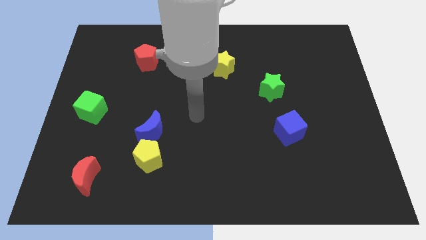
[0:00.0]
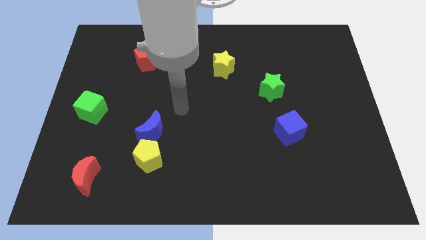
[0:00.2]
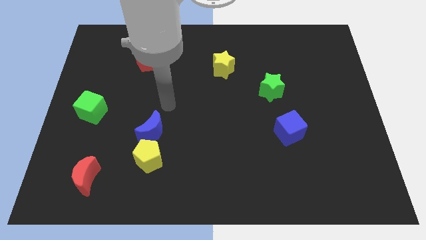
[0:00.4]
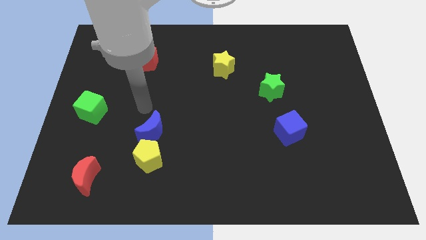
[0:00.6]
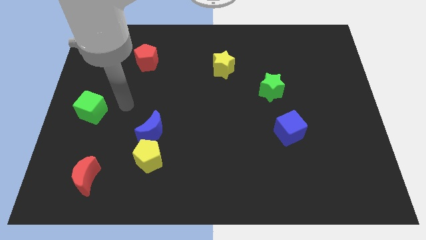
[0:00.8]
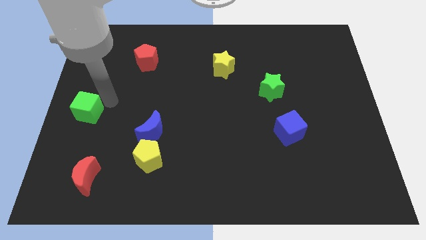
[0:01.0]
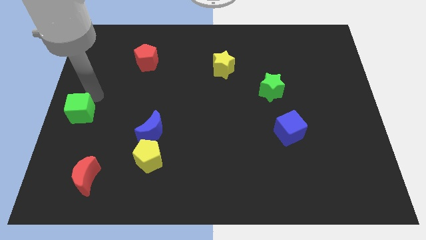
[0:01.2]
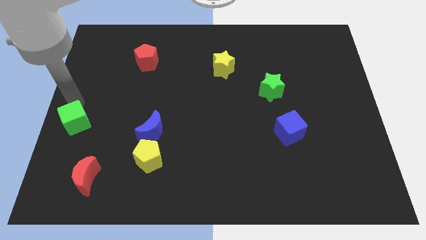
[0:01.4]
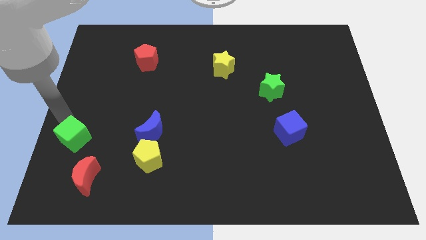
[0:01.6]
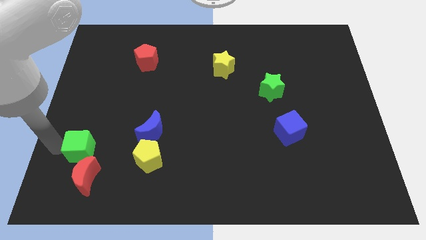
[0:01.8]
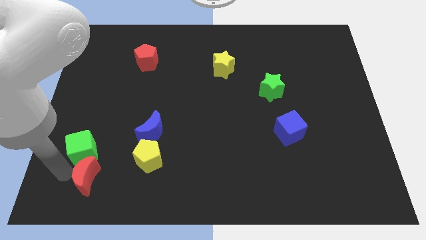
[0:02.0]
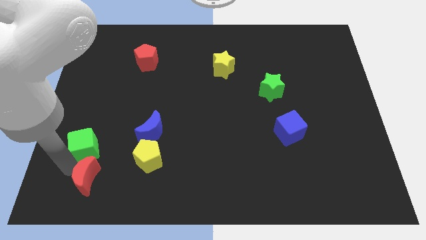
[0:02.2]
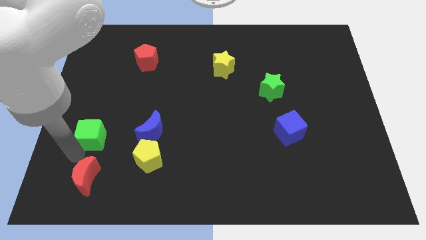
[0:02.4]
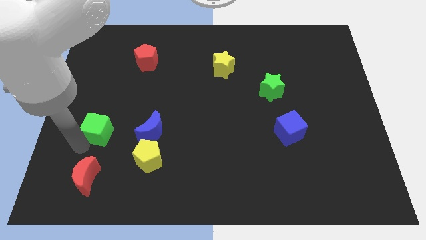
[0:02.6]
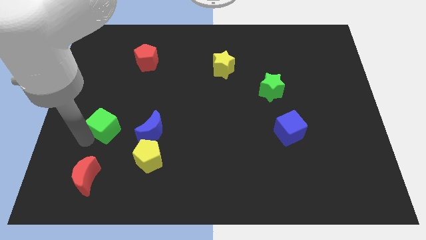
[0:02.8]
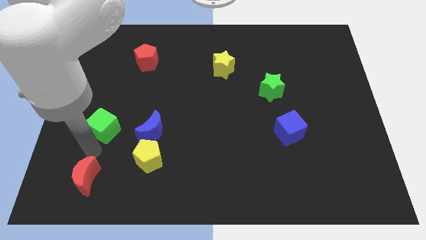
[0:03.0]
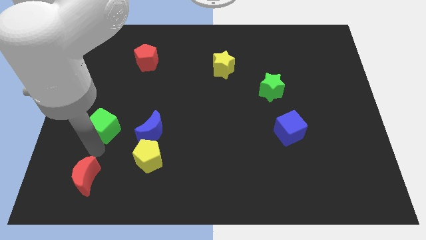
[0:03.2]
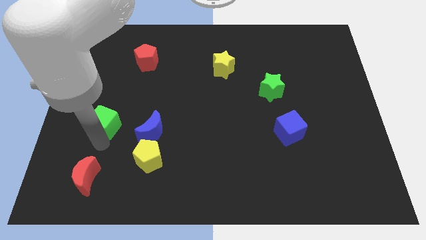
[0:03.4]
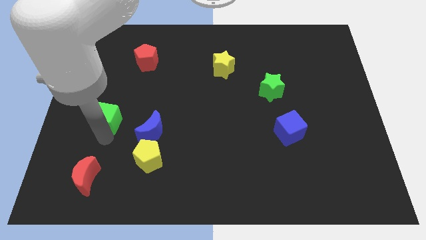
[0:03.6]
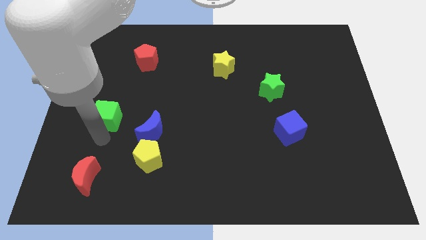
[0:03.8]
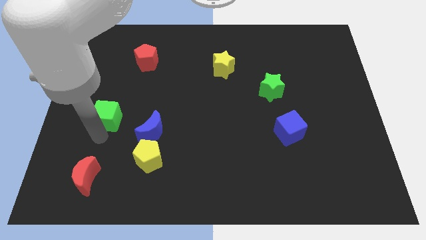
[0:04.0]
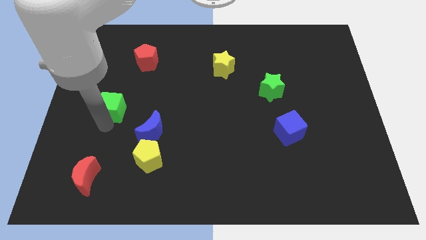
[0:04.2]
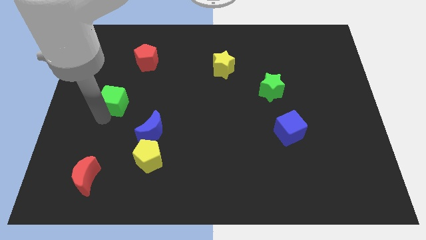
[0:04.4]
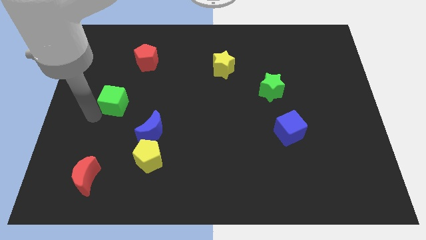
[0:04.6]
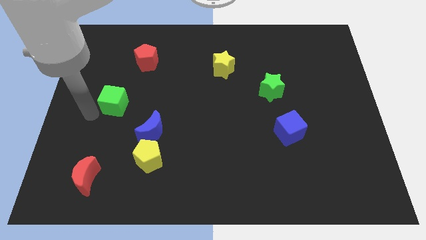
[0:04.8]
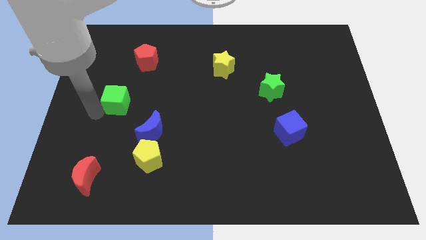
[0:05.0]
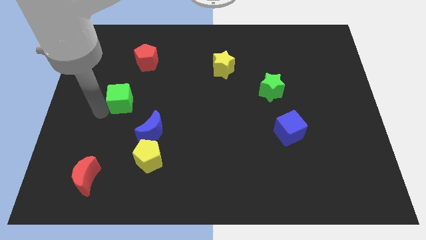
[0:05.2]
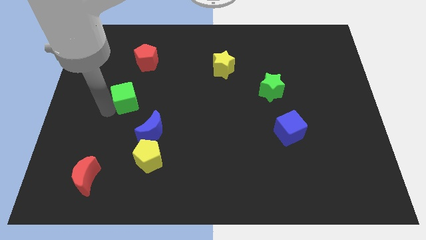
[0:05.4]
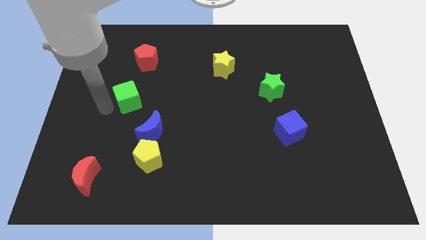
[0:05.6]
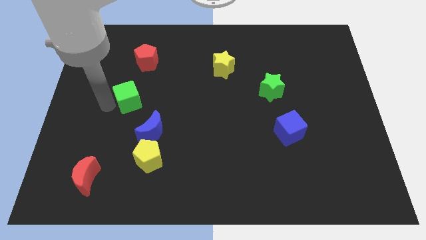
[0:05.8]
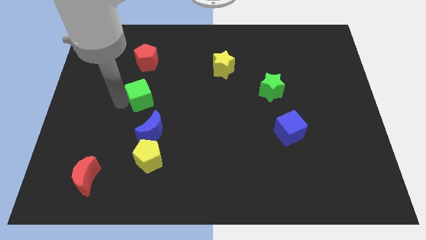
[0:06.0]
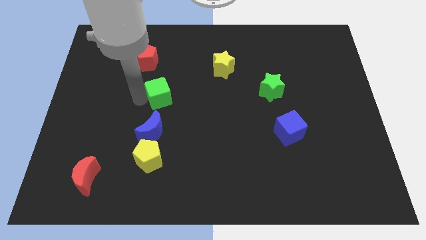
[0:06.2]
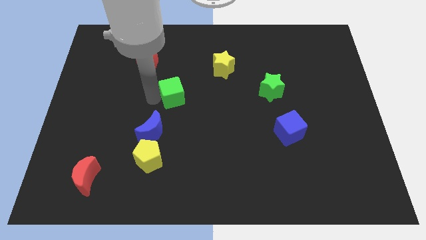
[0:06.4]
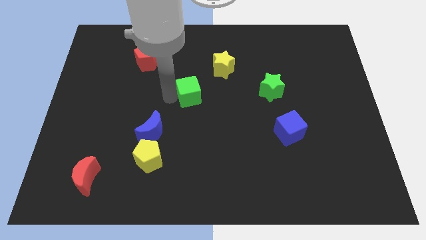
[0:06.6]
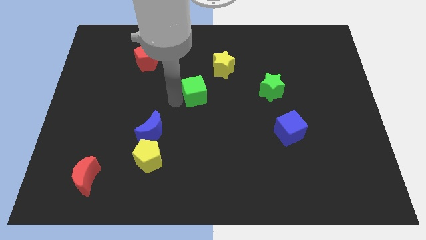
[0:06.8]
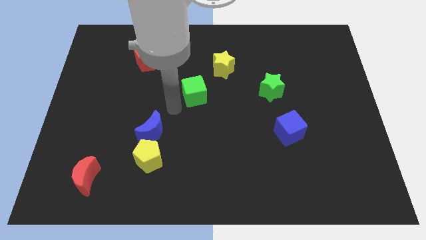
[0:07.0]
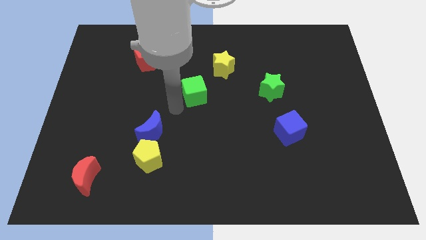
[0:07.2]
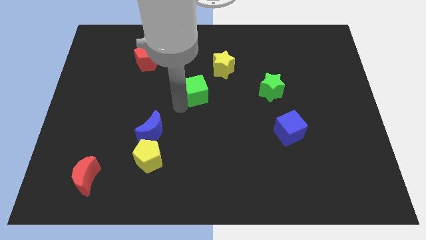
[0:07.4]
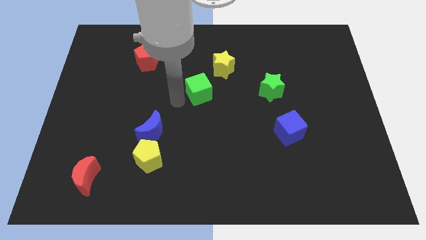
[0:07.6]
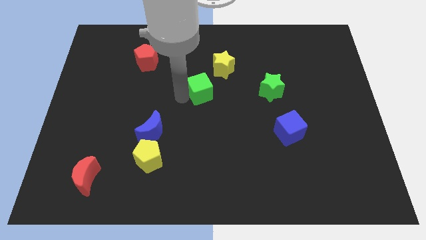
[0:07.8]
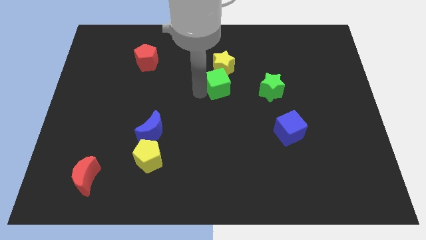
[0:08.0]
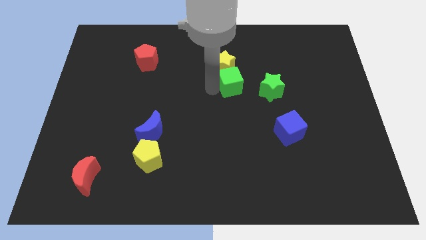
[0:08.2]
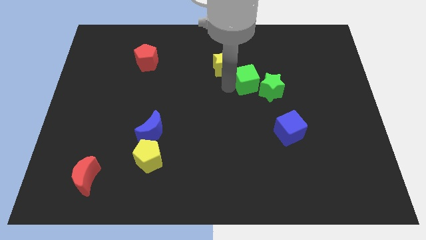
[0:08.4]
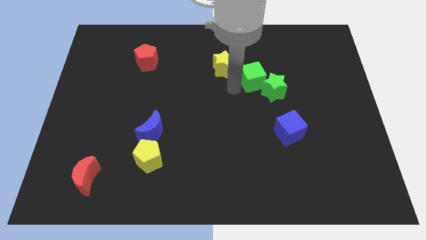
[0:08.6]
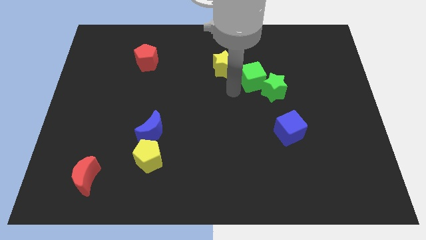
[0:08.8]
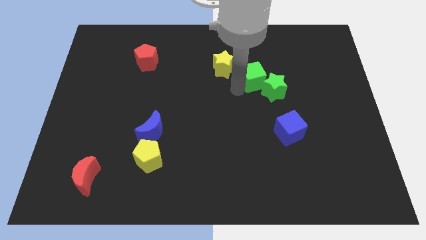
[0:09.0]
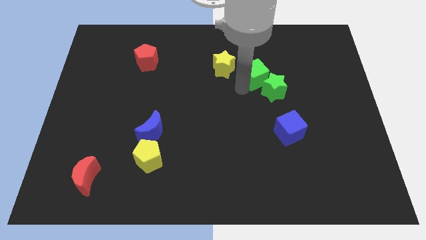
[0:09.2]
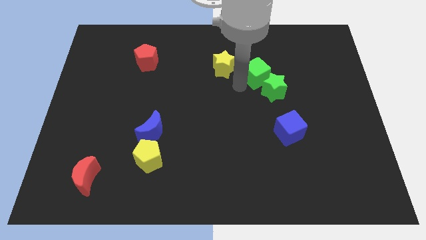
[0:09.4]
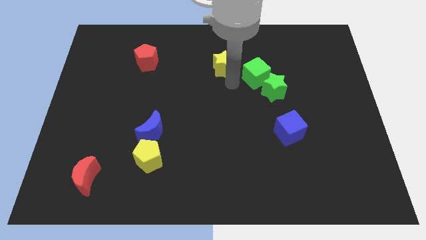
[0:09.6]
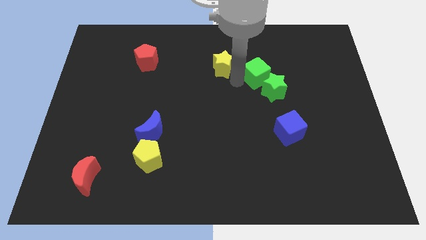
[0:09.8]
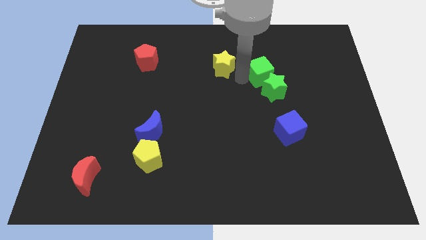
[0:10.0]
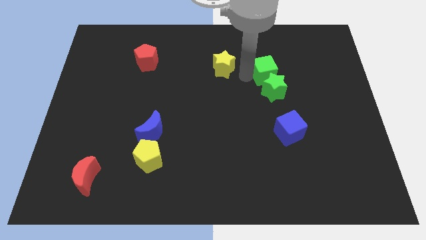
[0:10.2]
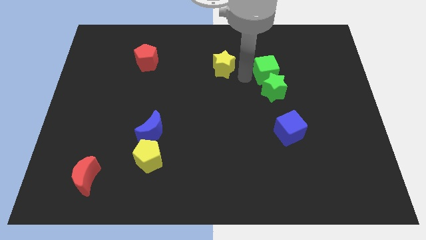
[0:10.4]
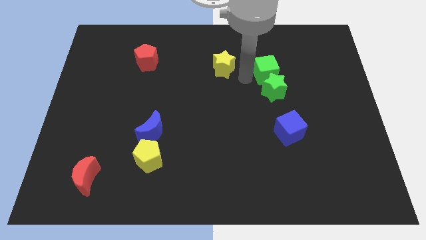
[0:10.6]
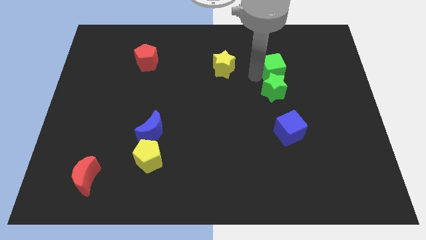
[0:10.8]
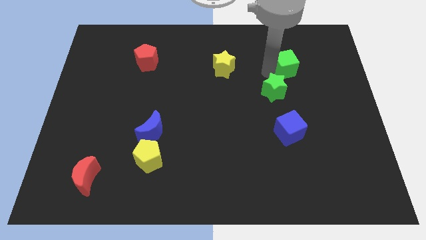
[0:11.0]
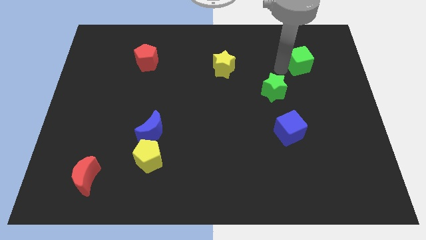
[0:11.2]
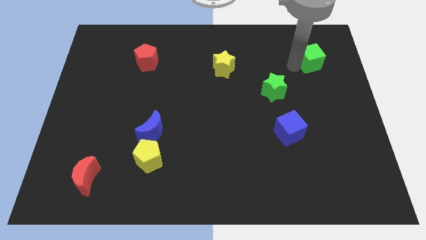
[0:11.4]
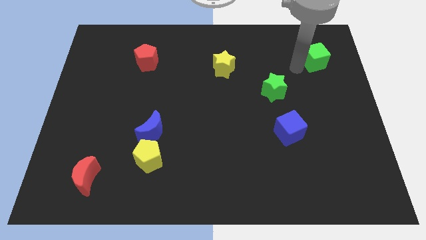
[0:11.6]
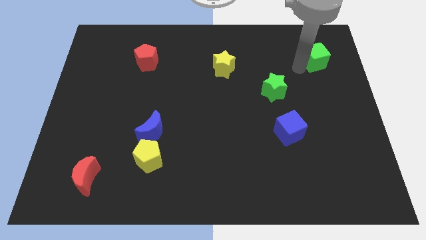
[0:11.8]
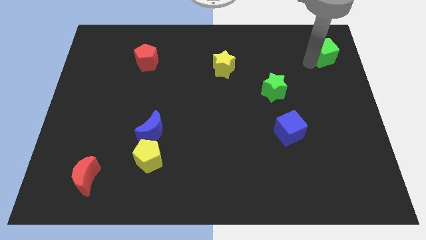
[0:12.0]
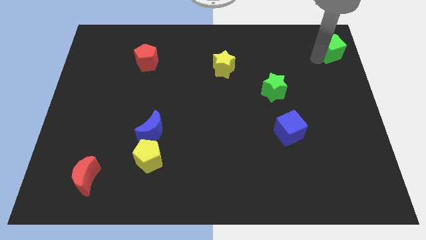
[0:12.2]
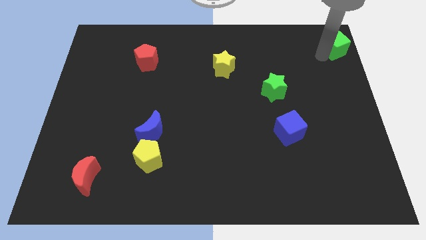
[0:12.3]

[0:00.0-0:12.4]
slide the green cube to the top right of the board
